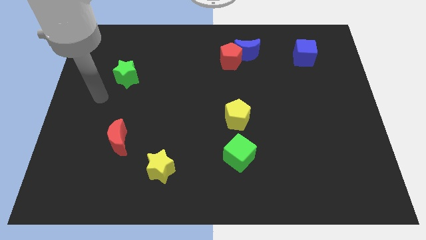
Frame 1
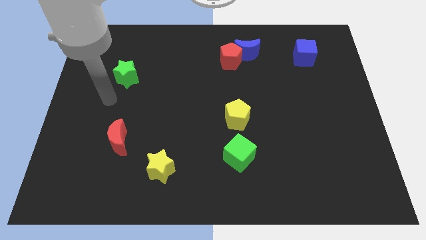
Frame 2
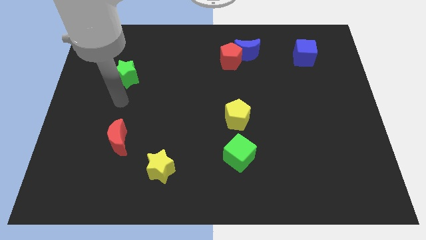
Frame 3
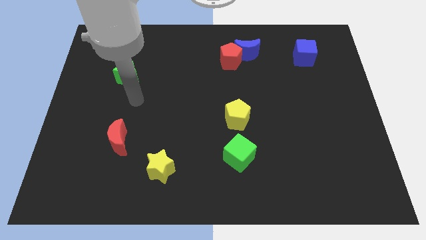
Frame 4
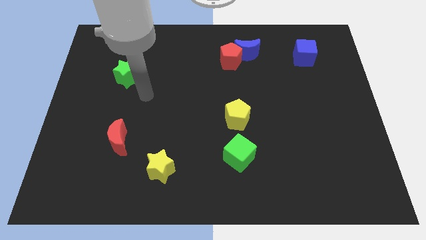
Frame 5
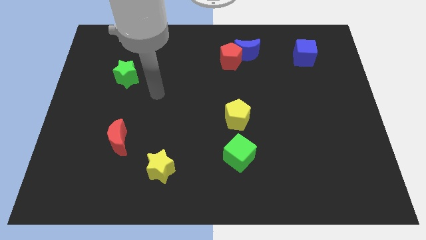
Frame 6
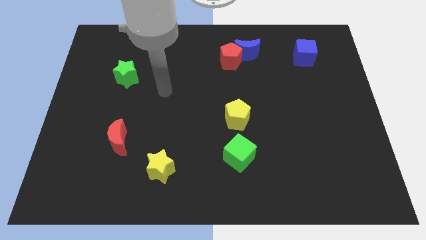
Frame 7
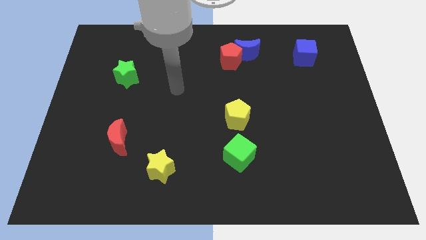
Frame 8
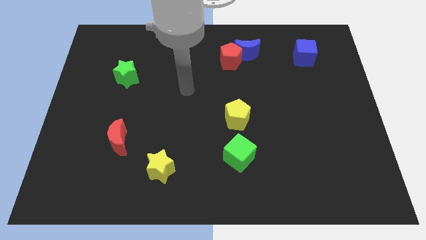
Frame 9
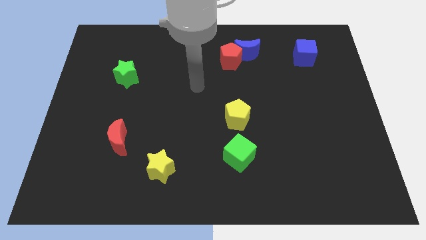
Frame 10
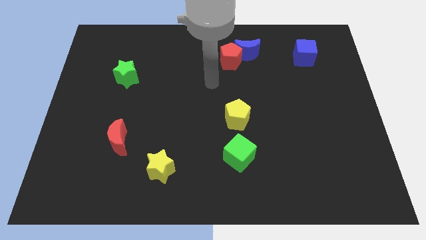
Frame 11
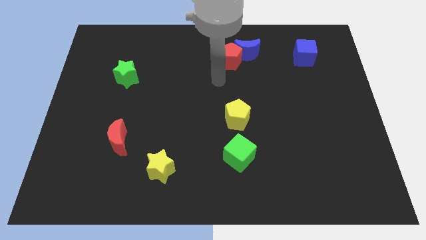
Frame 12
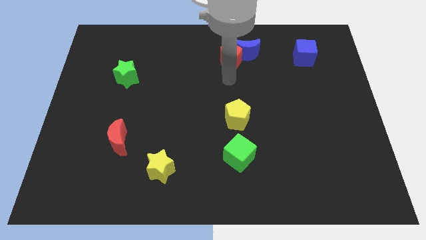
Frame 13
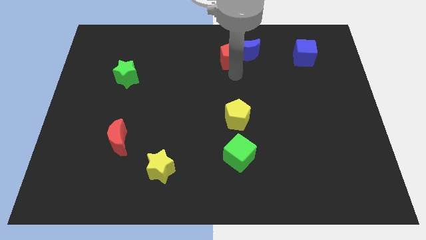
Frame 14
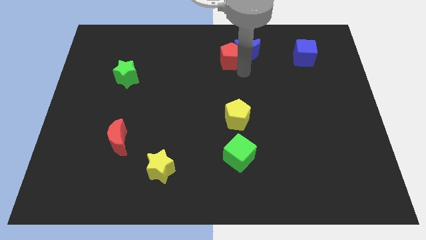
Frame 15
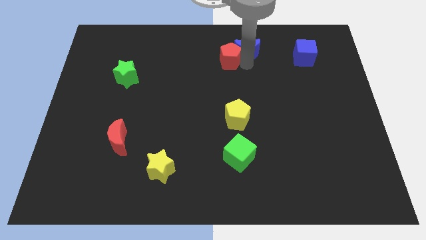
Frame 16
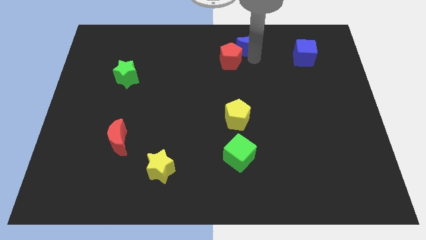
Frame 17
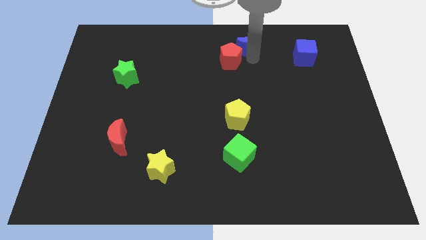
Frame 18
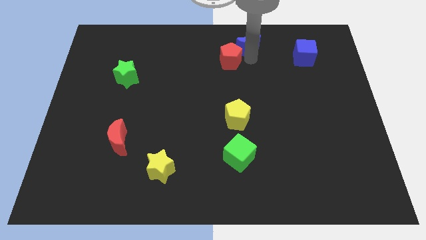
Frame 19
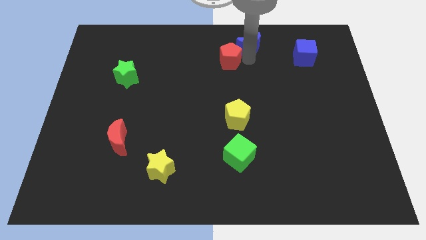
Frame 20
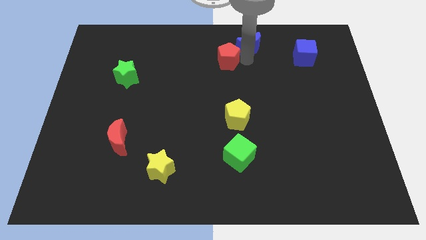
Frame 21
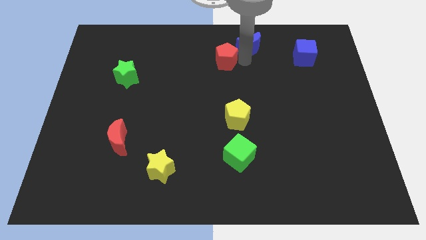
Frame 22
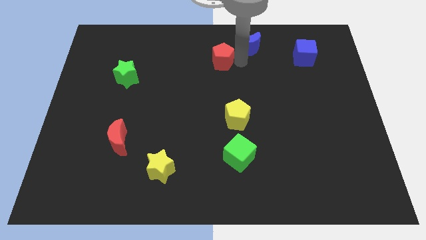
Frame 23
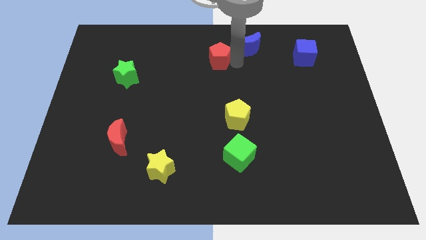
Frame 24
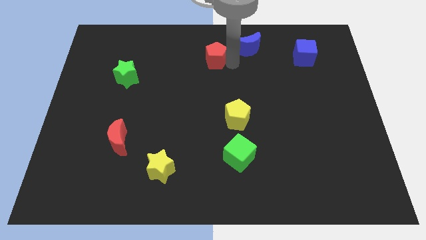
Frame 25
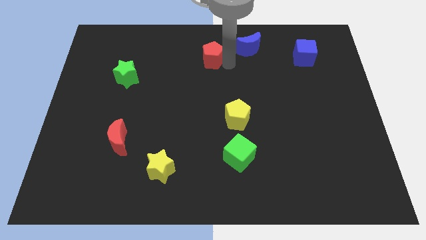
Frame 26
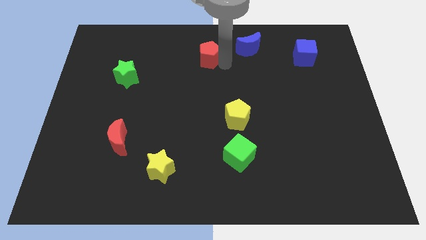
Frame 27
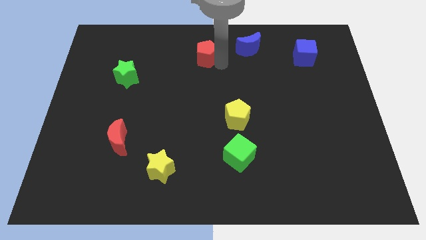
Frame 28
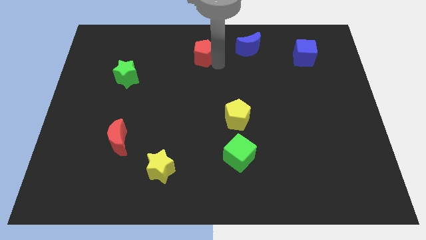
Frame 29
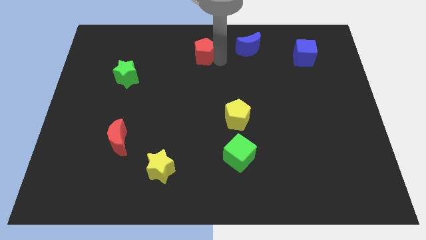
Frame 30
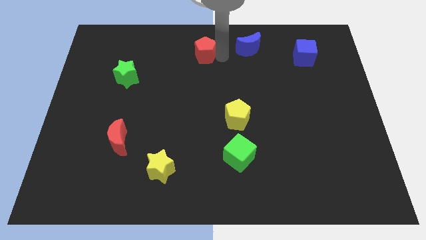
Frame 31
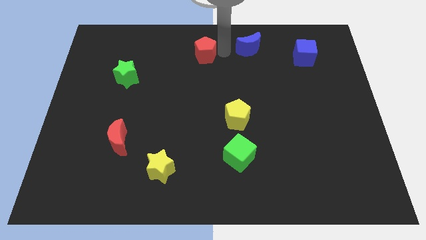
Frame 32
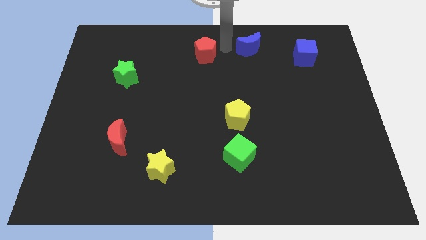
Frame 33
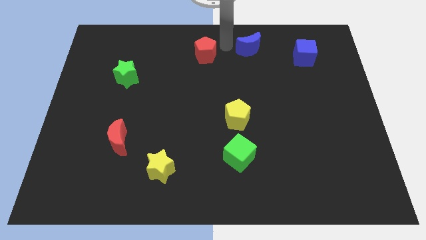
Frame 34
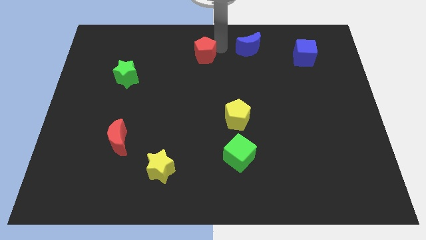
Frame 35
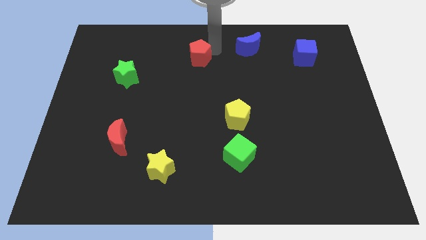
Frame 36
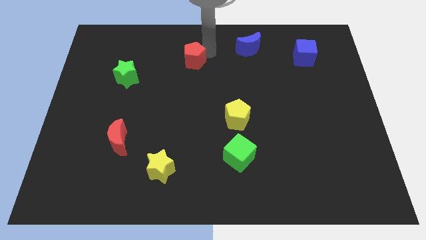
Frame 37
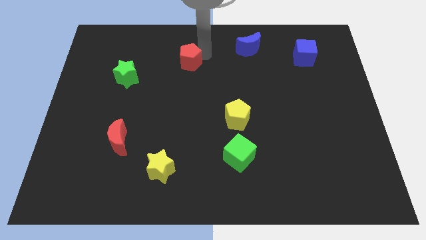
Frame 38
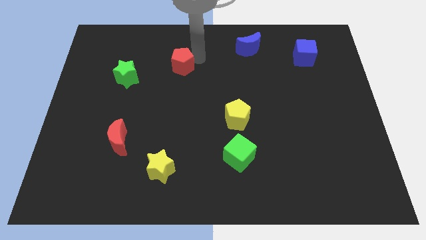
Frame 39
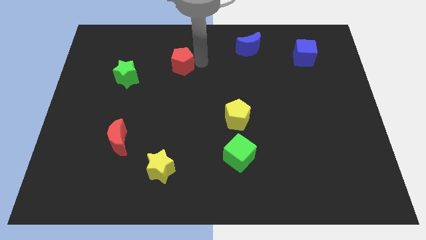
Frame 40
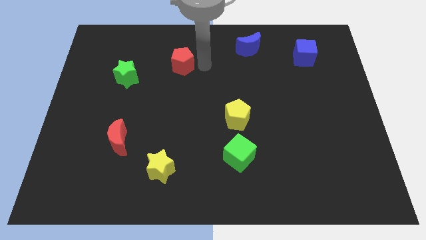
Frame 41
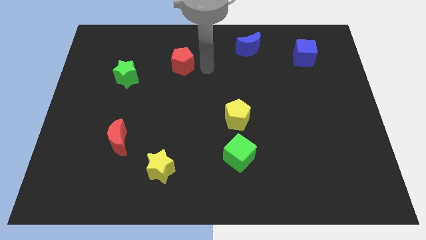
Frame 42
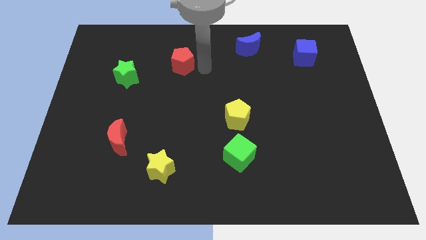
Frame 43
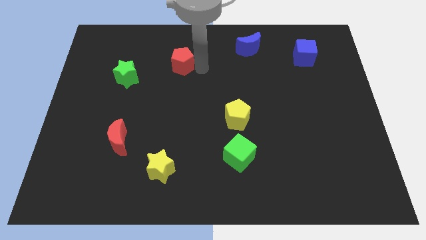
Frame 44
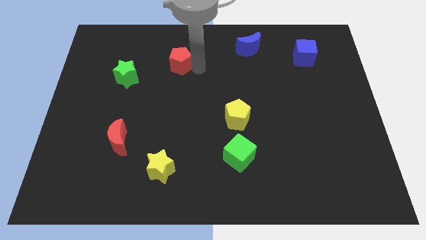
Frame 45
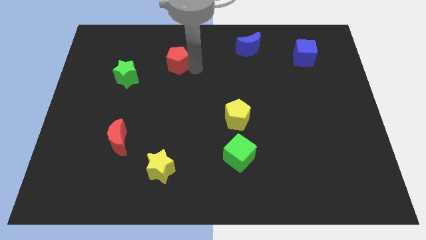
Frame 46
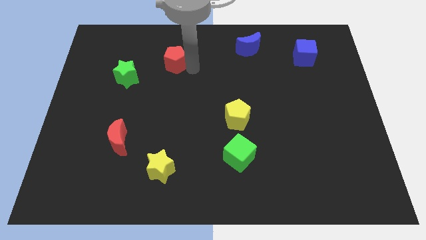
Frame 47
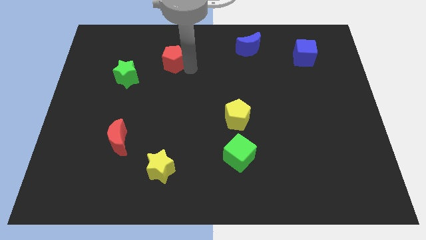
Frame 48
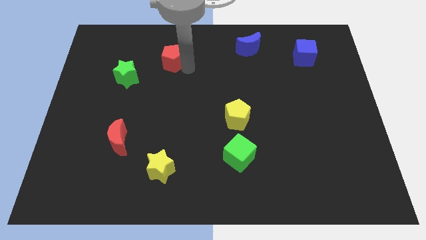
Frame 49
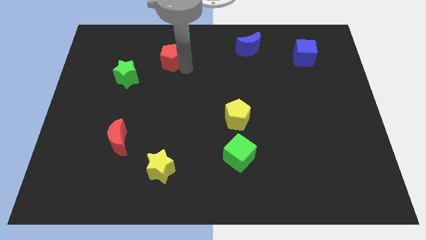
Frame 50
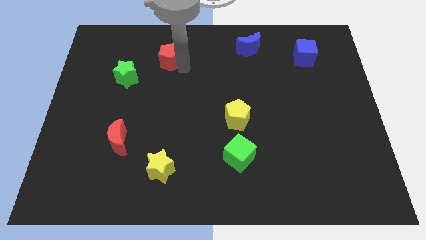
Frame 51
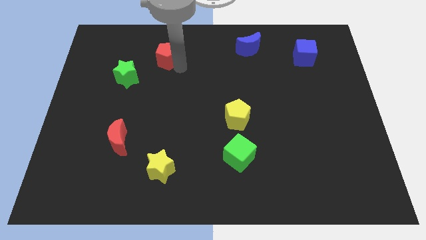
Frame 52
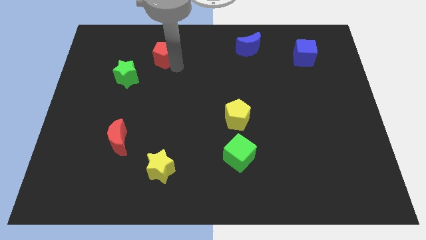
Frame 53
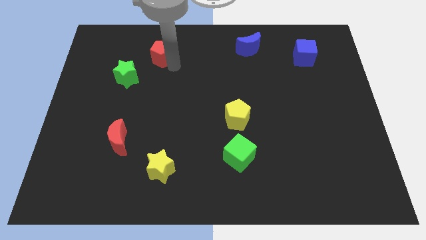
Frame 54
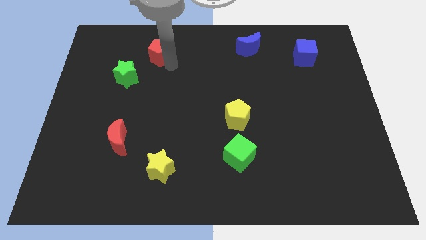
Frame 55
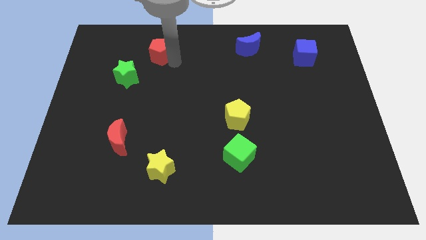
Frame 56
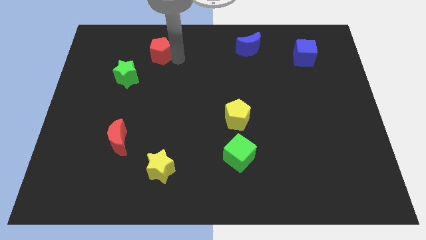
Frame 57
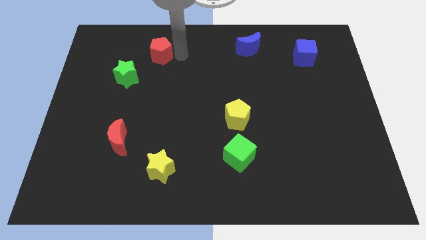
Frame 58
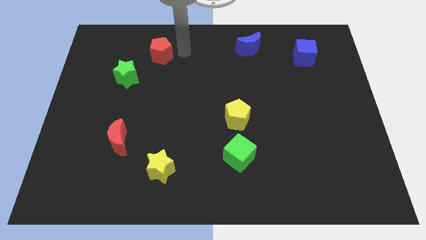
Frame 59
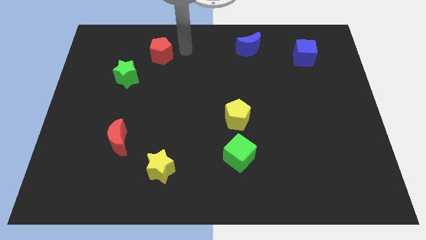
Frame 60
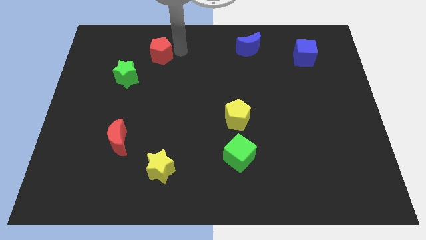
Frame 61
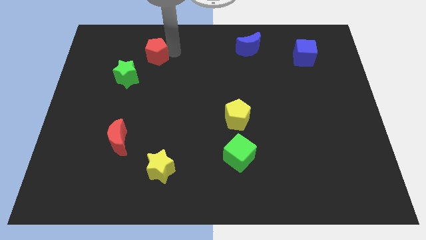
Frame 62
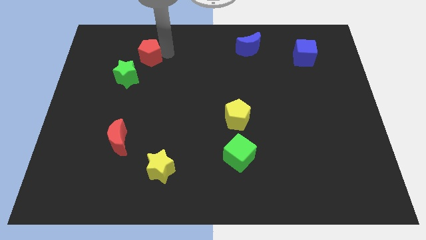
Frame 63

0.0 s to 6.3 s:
move the red pentagon left

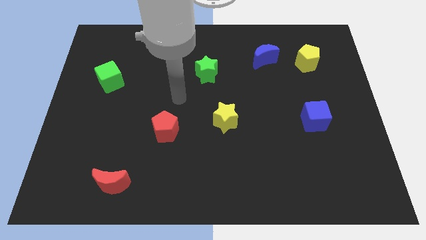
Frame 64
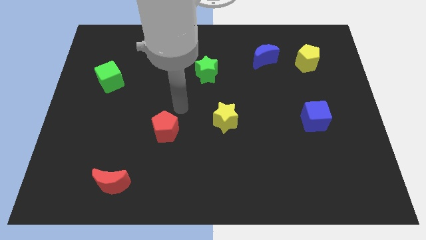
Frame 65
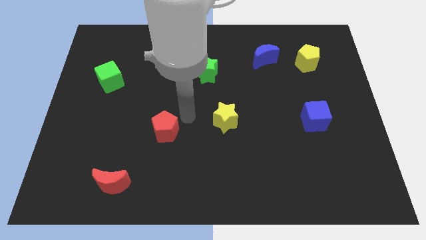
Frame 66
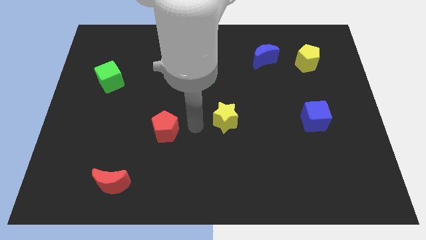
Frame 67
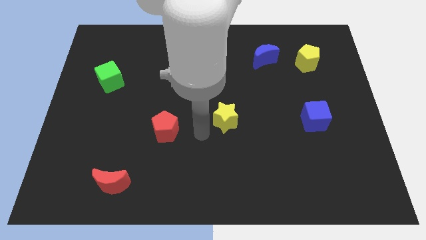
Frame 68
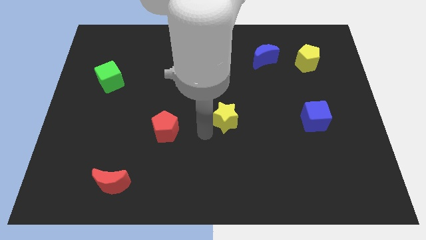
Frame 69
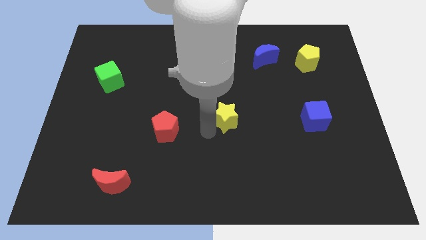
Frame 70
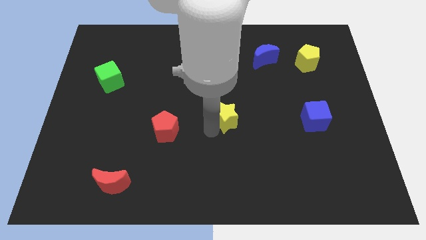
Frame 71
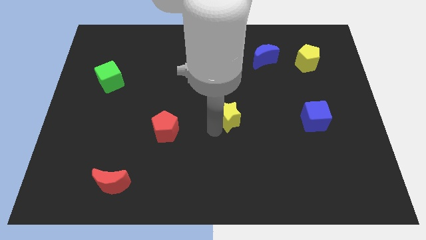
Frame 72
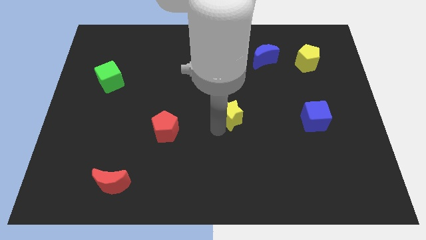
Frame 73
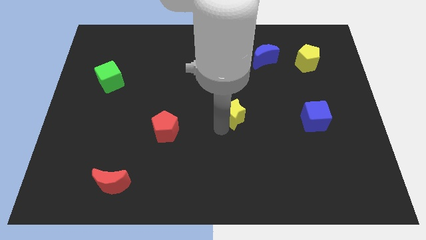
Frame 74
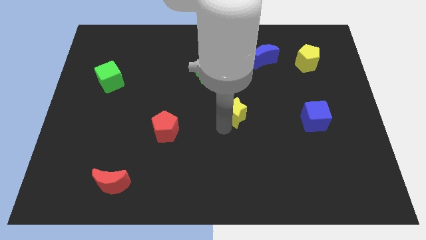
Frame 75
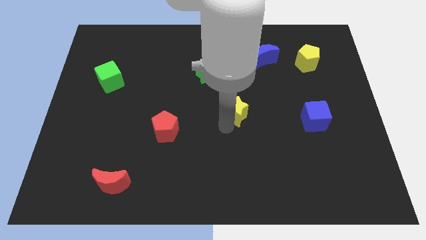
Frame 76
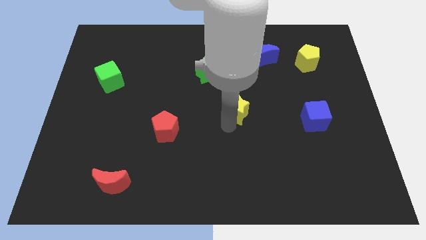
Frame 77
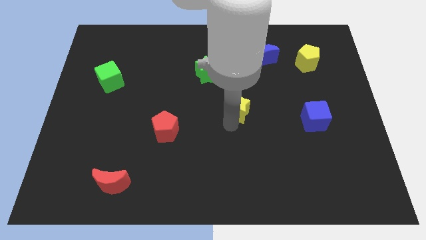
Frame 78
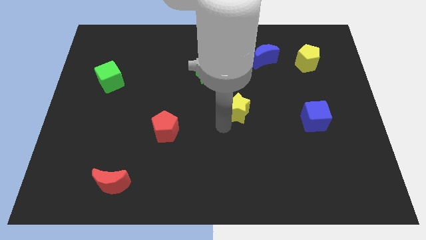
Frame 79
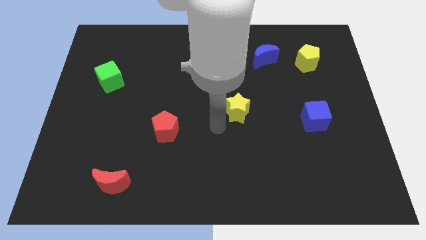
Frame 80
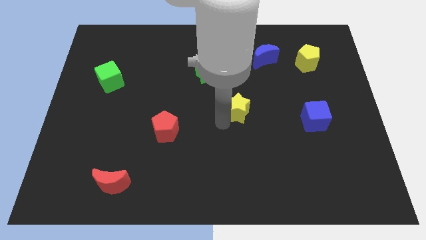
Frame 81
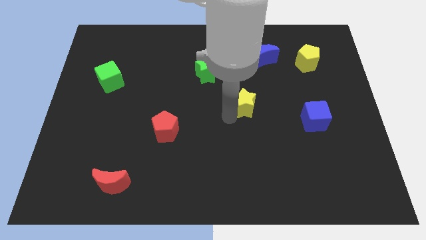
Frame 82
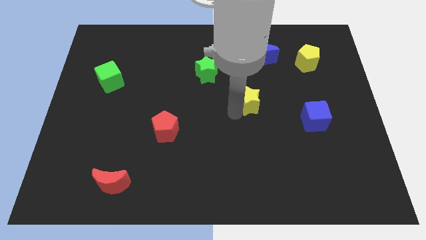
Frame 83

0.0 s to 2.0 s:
push the yellow star somewhat upwards and right diagonally
